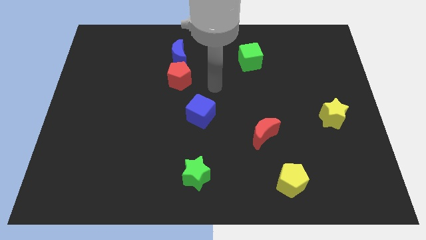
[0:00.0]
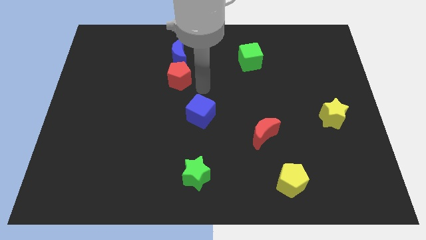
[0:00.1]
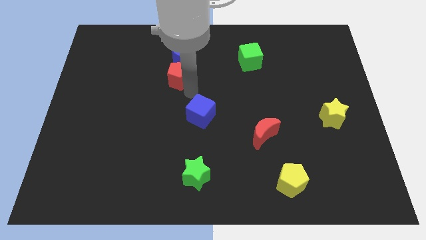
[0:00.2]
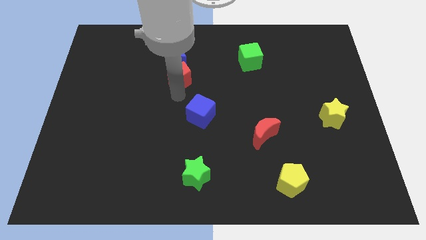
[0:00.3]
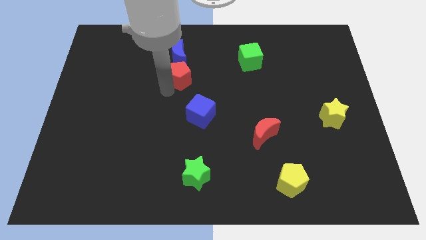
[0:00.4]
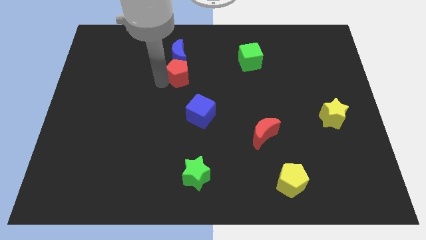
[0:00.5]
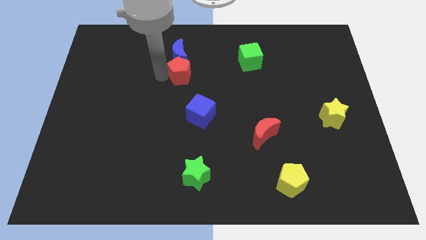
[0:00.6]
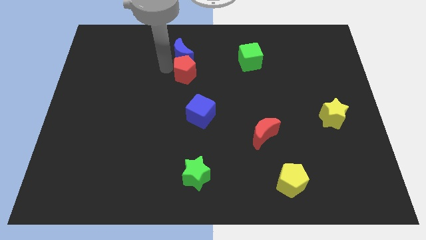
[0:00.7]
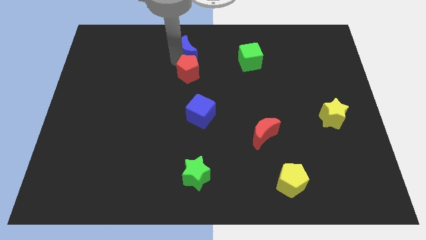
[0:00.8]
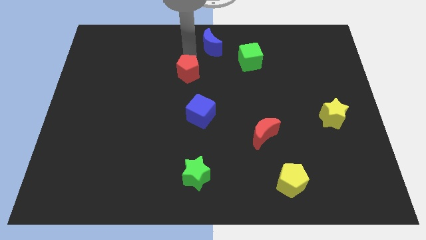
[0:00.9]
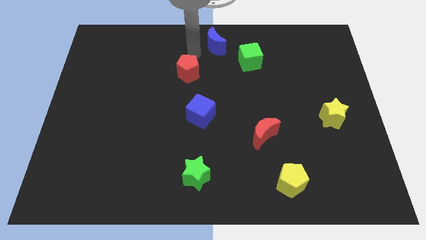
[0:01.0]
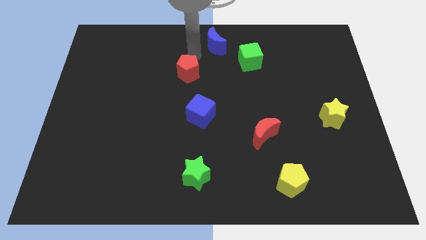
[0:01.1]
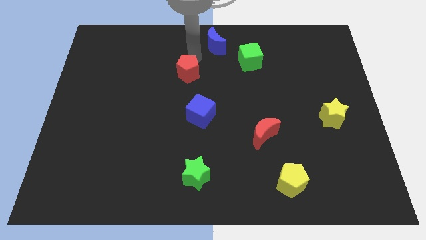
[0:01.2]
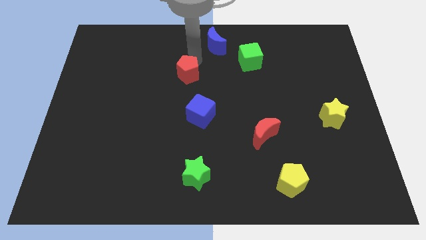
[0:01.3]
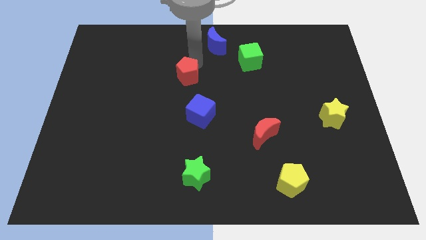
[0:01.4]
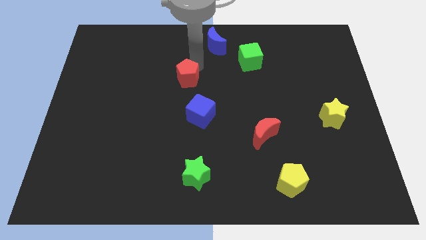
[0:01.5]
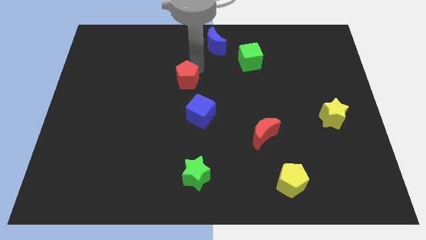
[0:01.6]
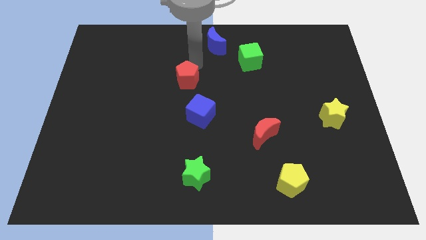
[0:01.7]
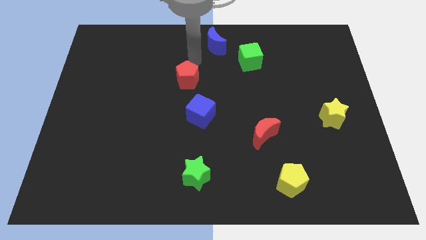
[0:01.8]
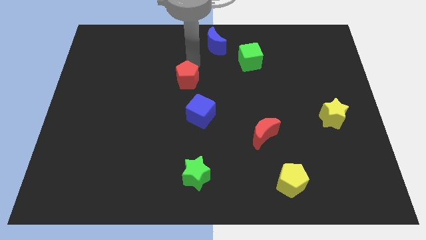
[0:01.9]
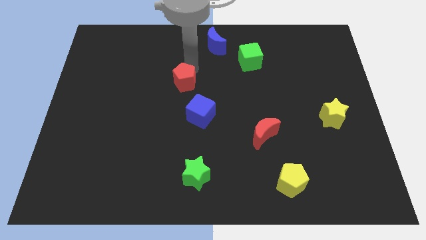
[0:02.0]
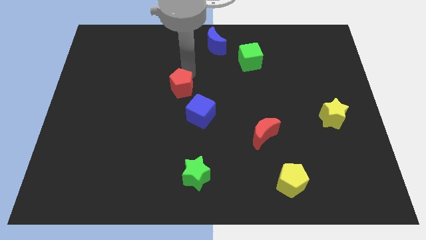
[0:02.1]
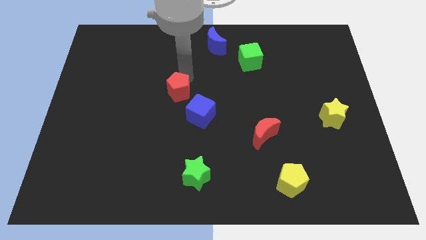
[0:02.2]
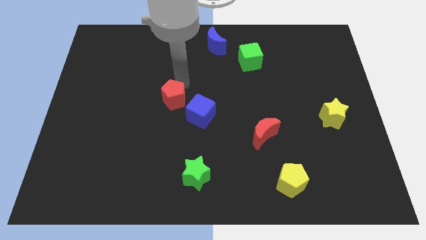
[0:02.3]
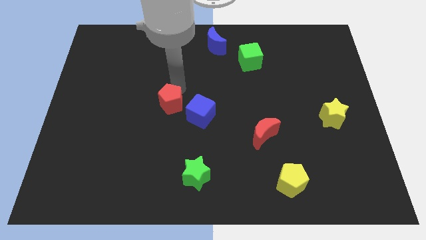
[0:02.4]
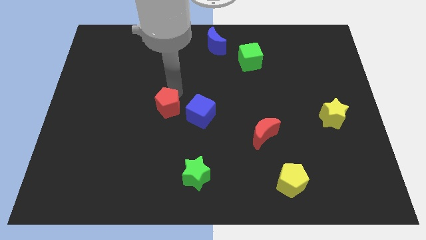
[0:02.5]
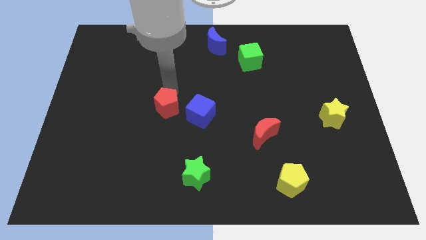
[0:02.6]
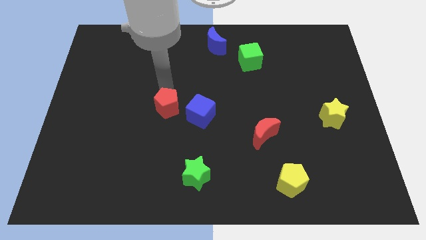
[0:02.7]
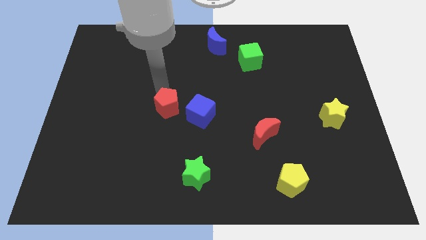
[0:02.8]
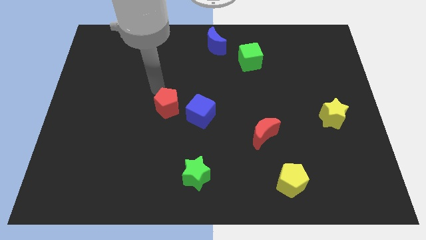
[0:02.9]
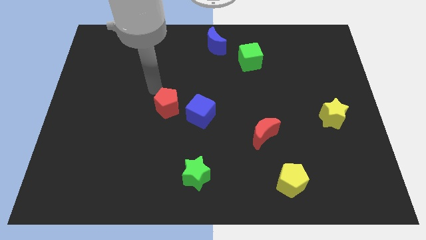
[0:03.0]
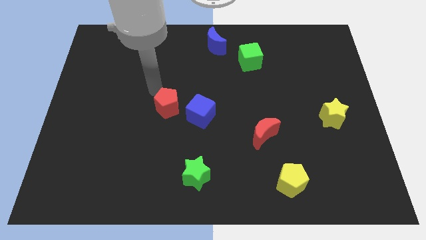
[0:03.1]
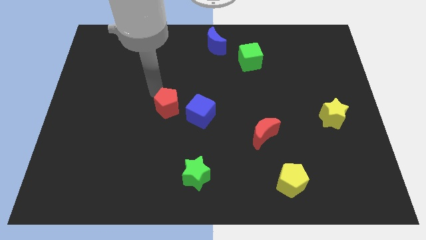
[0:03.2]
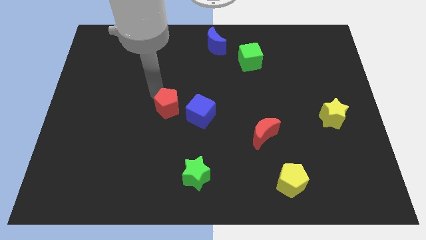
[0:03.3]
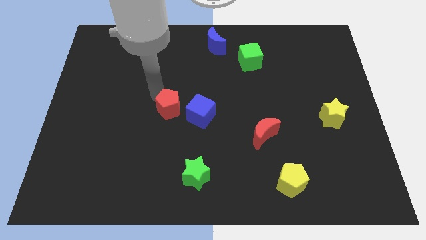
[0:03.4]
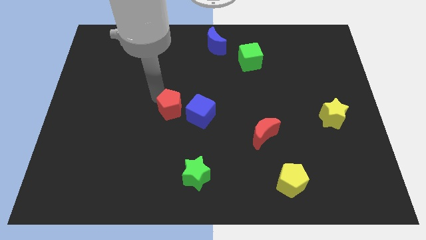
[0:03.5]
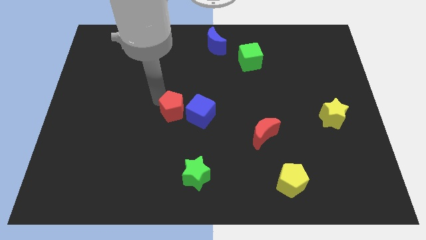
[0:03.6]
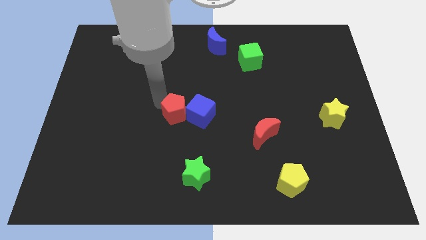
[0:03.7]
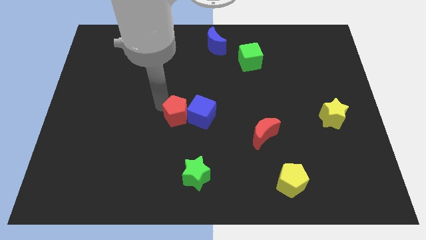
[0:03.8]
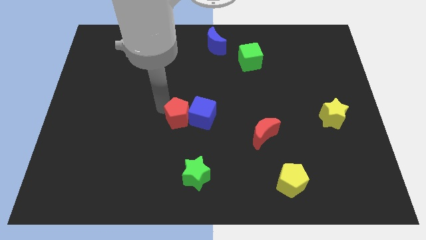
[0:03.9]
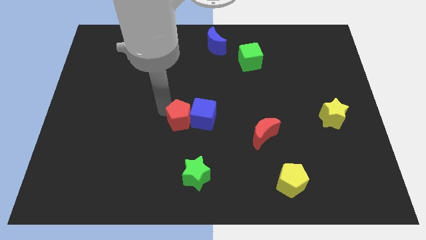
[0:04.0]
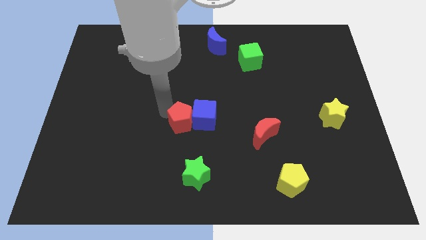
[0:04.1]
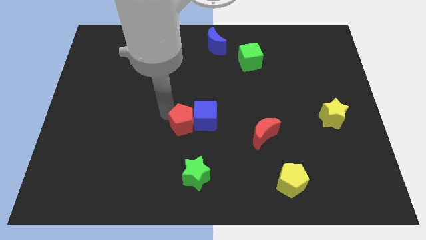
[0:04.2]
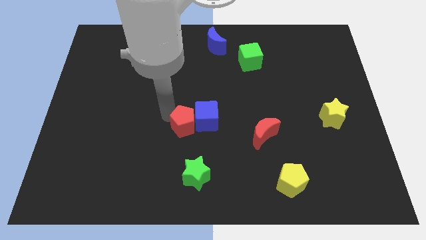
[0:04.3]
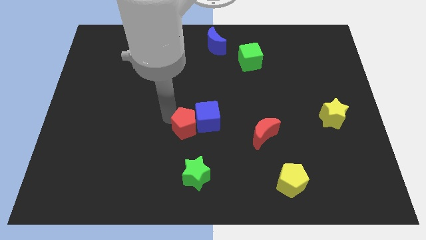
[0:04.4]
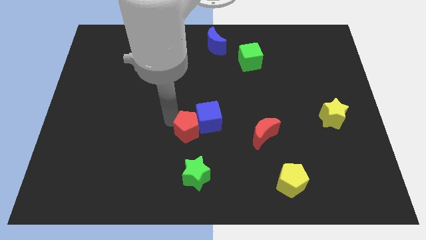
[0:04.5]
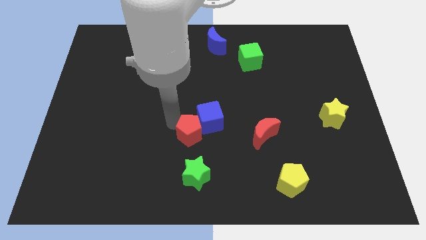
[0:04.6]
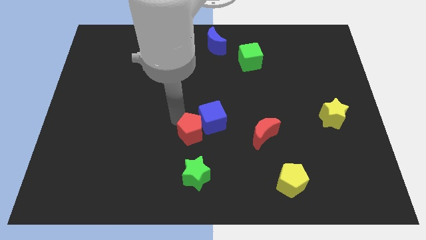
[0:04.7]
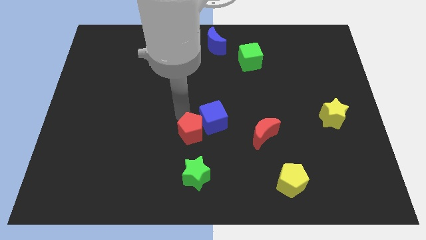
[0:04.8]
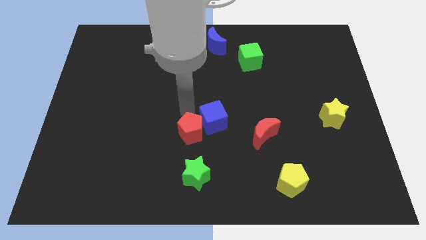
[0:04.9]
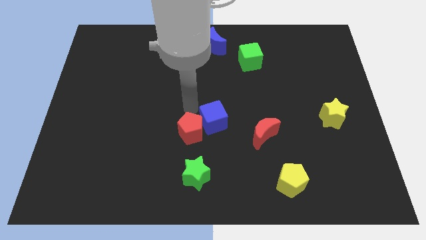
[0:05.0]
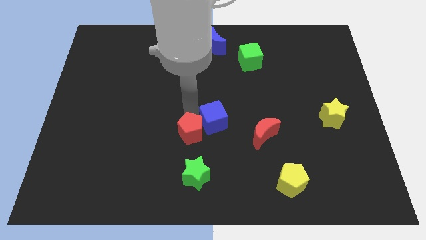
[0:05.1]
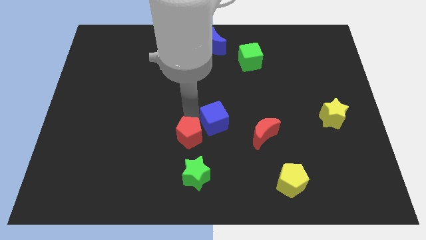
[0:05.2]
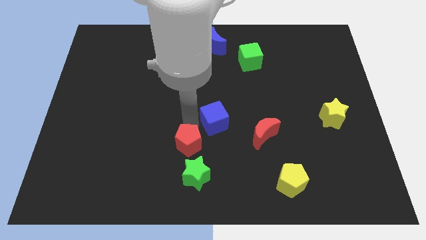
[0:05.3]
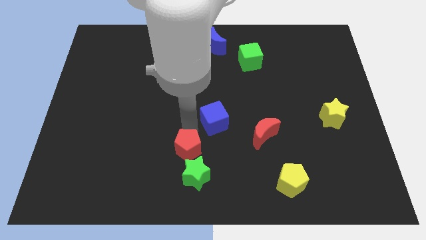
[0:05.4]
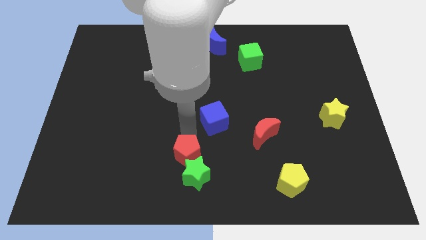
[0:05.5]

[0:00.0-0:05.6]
slide the red pentagon towards the green star

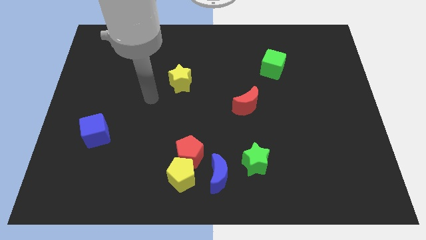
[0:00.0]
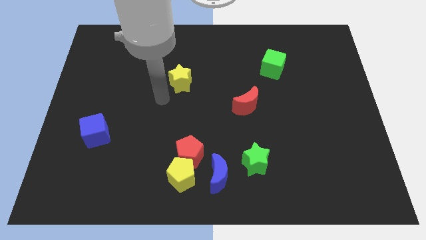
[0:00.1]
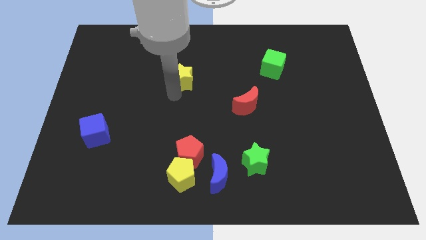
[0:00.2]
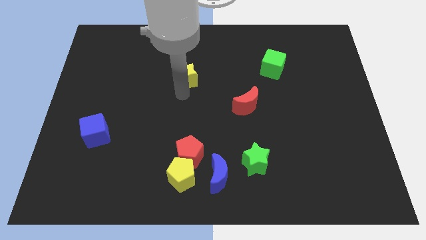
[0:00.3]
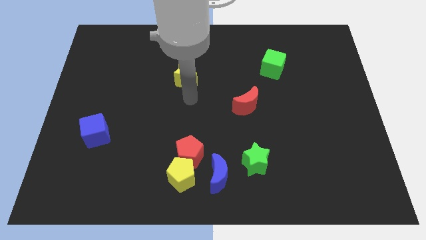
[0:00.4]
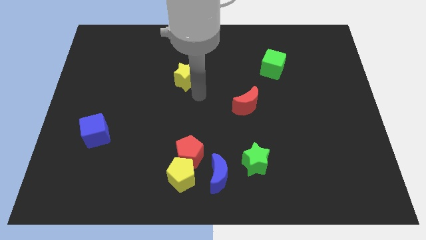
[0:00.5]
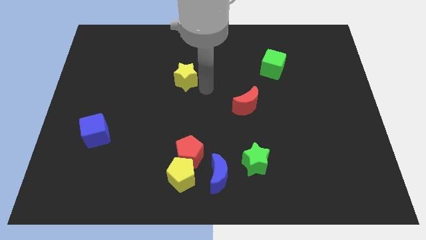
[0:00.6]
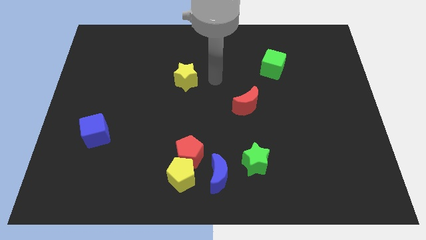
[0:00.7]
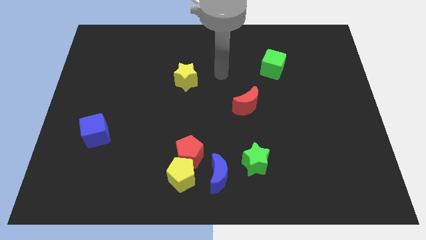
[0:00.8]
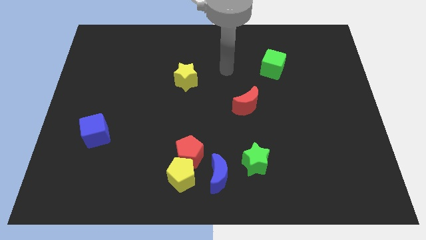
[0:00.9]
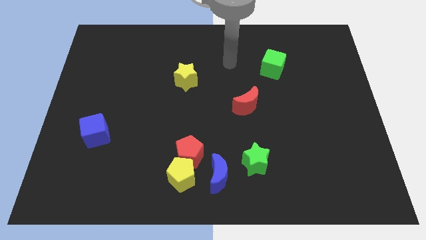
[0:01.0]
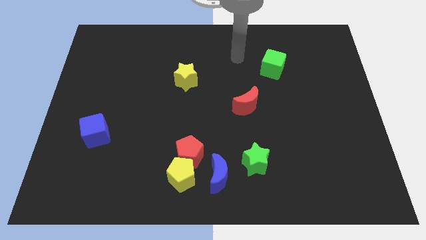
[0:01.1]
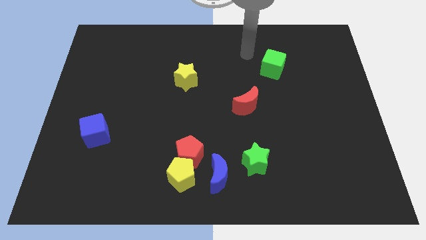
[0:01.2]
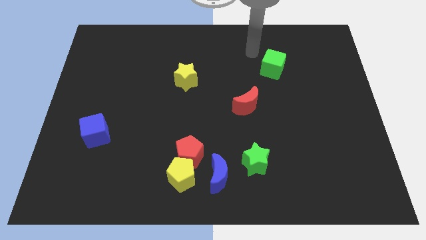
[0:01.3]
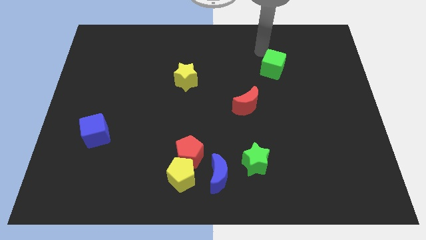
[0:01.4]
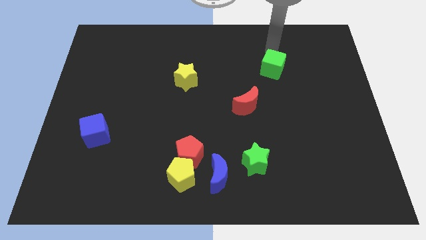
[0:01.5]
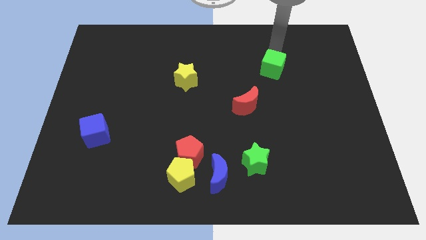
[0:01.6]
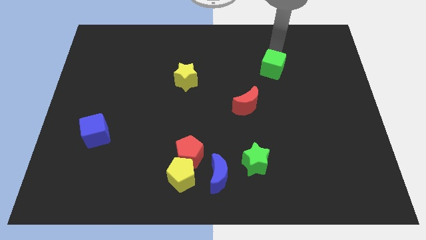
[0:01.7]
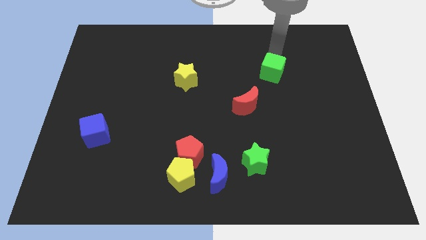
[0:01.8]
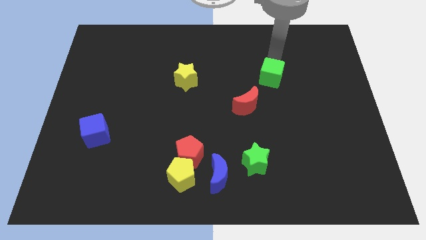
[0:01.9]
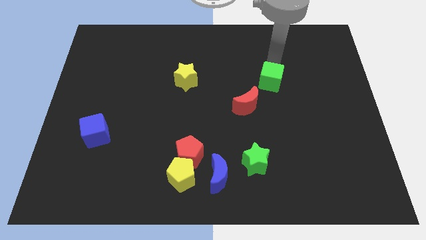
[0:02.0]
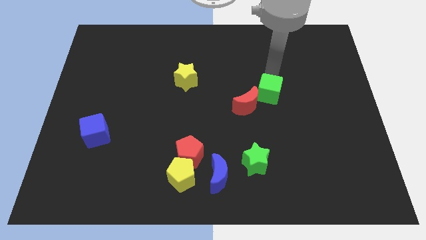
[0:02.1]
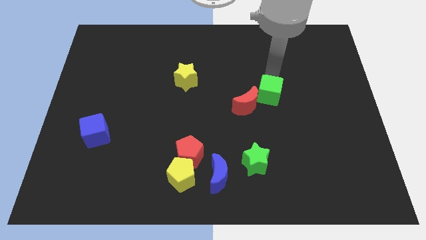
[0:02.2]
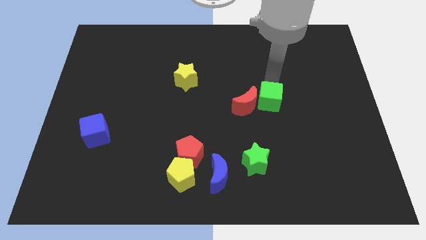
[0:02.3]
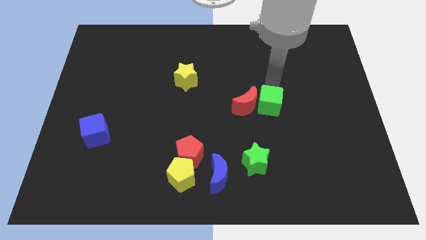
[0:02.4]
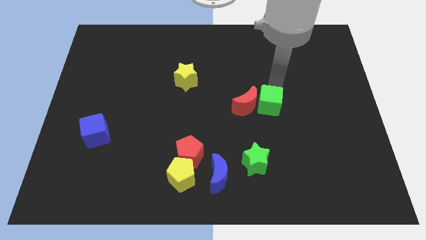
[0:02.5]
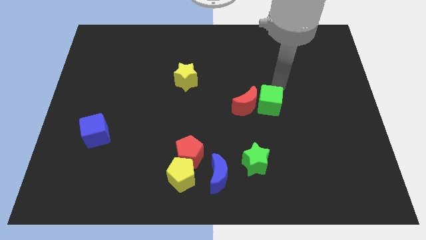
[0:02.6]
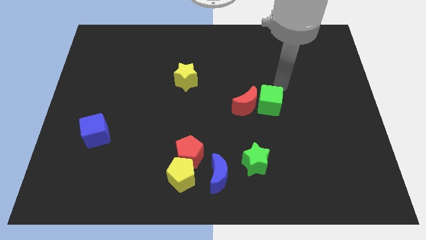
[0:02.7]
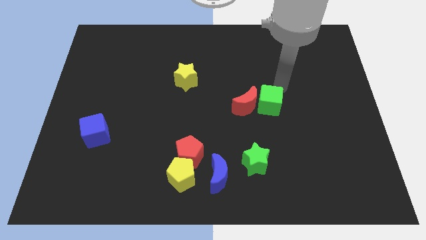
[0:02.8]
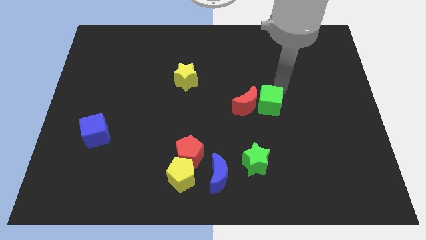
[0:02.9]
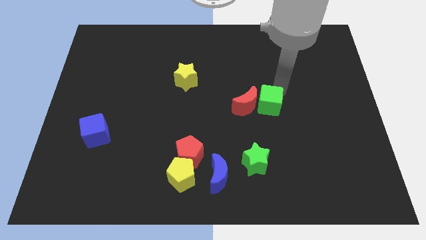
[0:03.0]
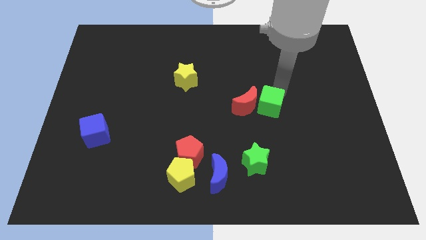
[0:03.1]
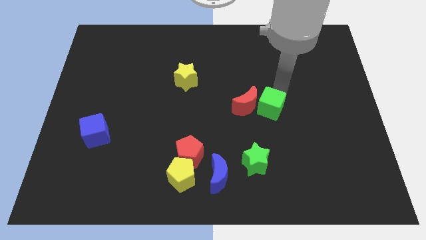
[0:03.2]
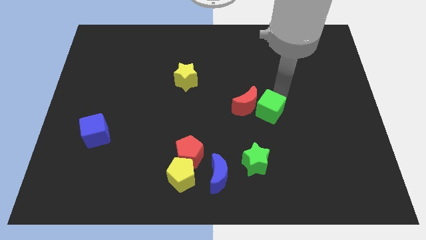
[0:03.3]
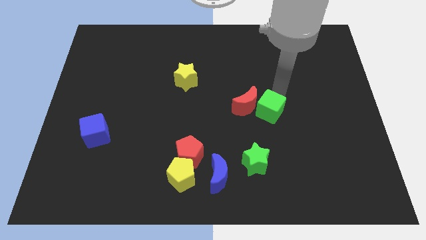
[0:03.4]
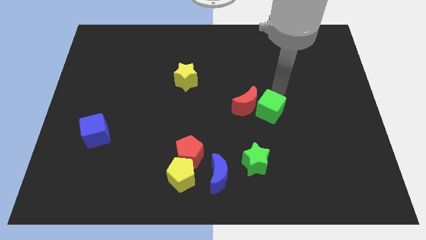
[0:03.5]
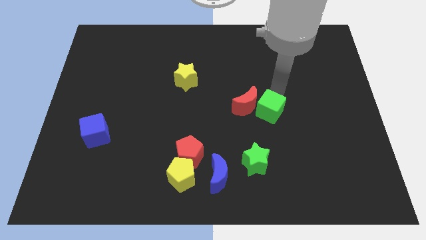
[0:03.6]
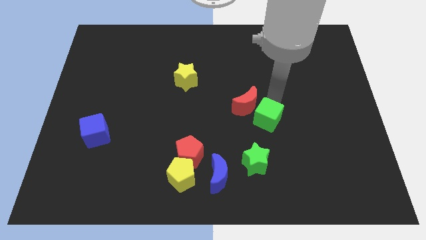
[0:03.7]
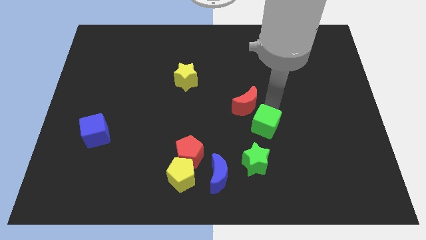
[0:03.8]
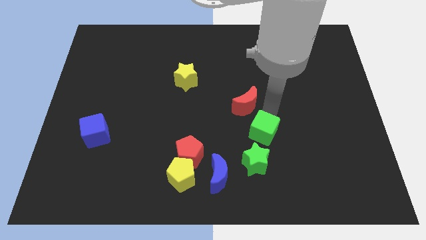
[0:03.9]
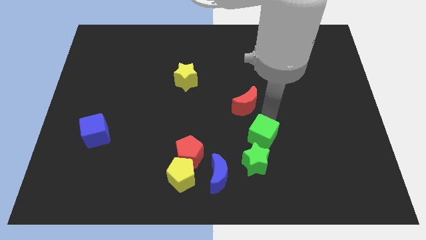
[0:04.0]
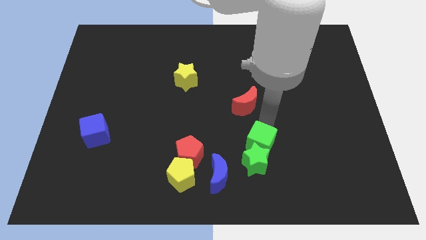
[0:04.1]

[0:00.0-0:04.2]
push the green cube next to the green star
